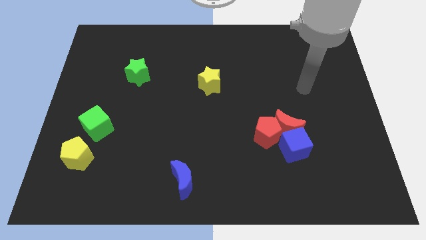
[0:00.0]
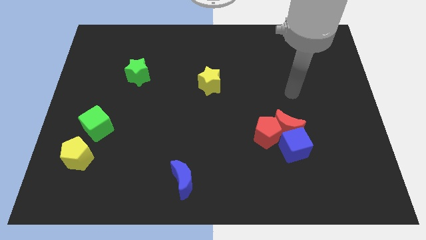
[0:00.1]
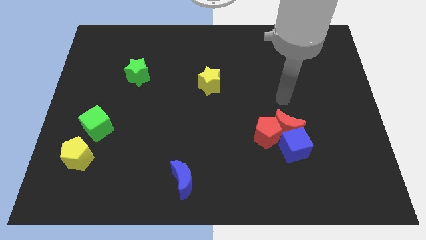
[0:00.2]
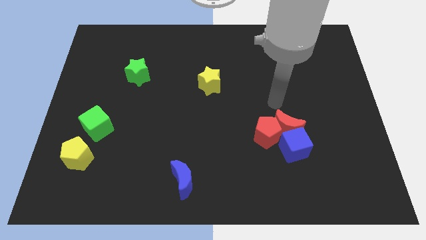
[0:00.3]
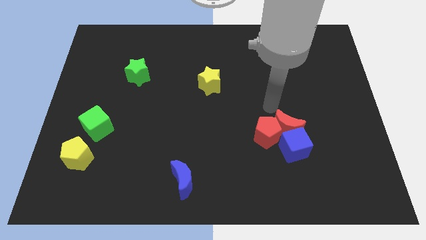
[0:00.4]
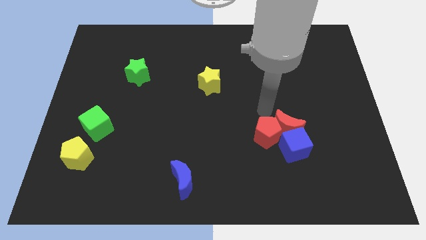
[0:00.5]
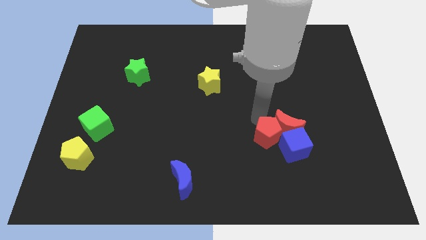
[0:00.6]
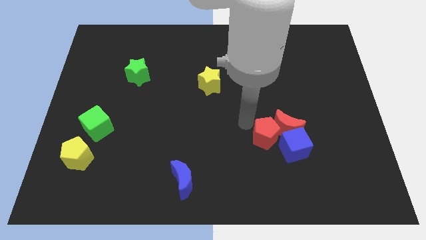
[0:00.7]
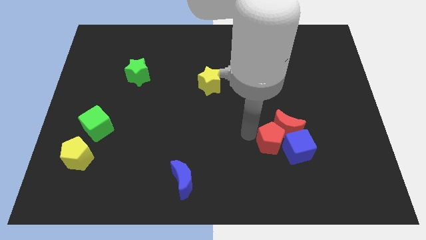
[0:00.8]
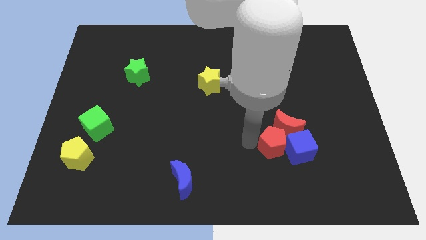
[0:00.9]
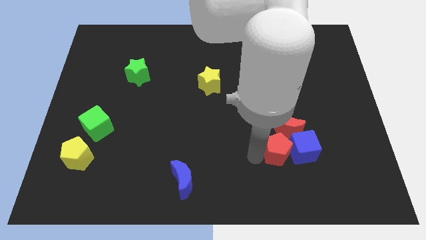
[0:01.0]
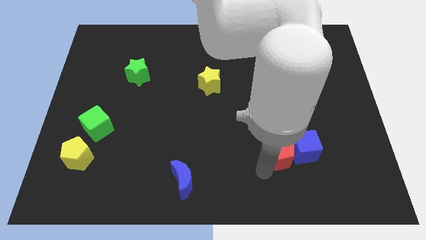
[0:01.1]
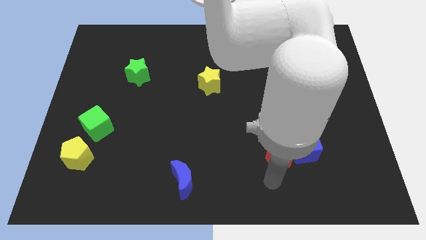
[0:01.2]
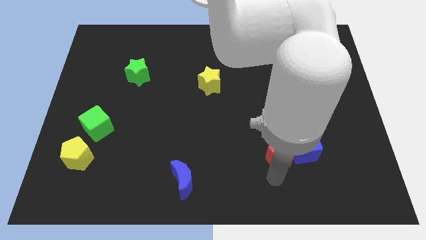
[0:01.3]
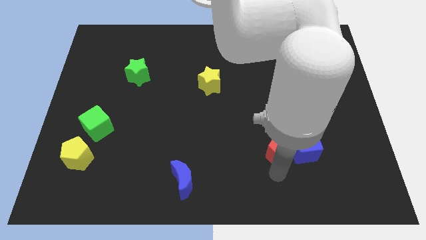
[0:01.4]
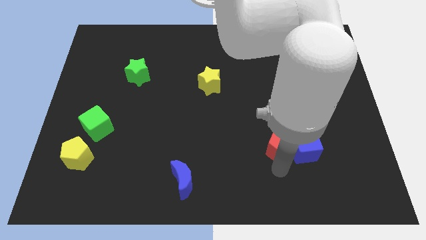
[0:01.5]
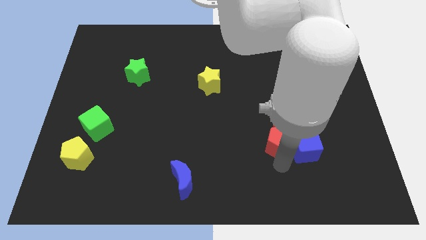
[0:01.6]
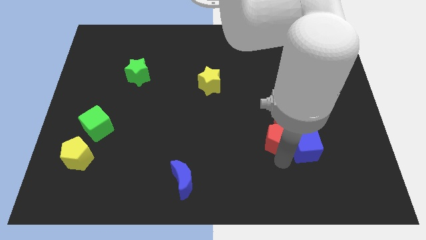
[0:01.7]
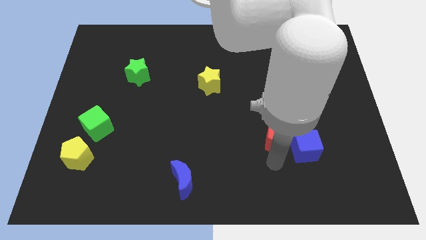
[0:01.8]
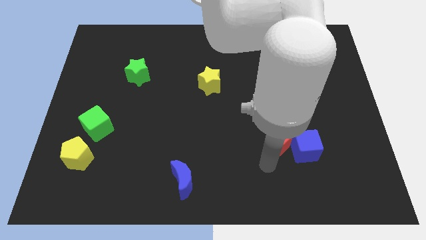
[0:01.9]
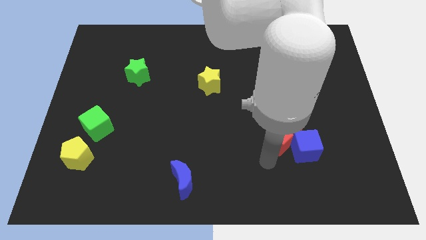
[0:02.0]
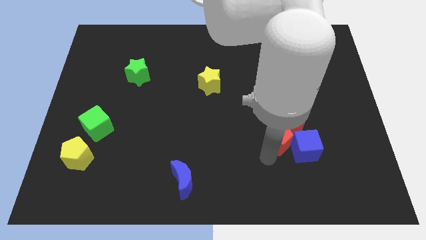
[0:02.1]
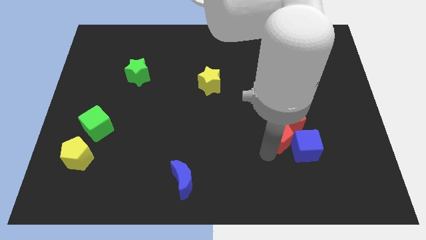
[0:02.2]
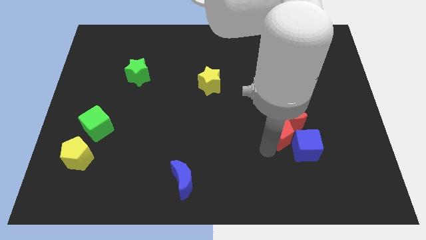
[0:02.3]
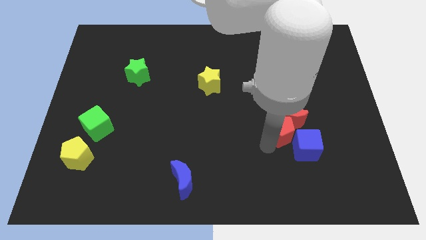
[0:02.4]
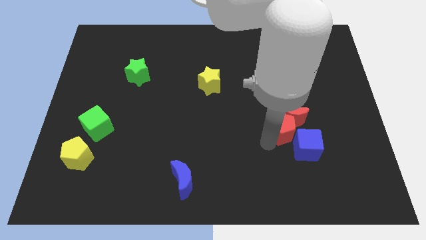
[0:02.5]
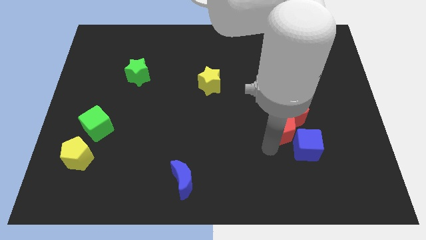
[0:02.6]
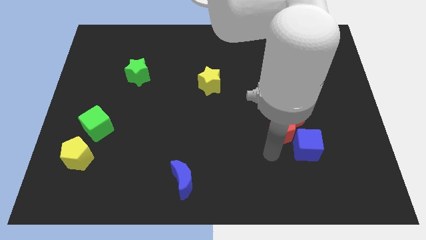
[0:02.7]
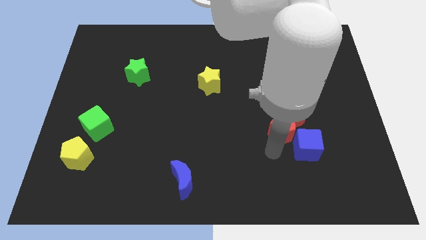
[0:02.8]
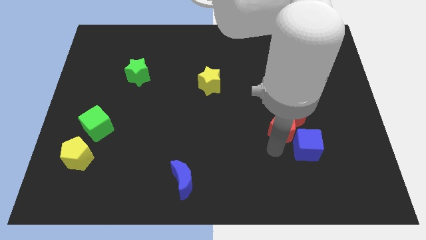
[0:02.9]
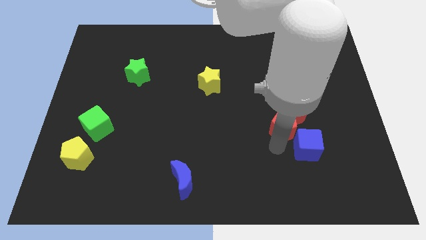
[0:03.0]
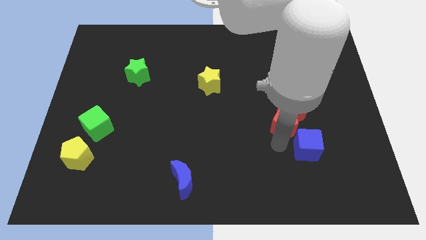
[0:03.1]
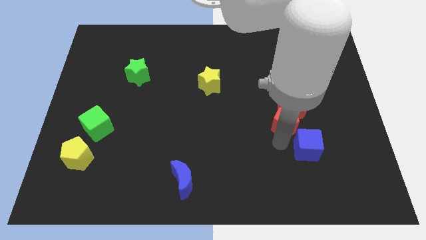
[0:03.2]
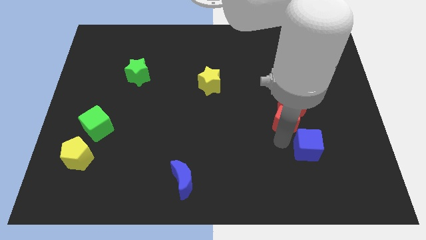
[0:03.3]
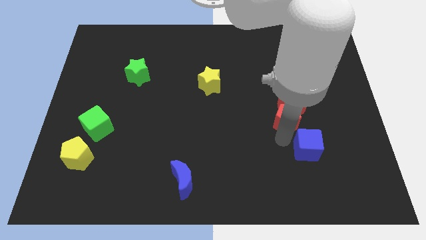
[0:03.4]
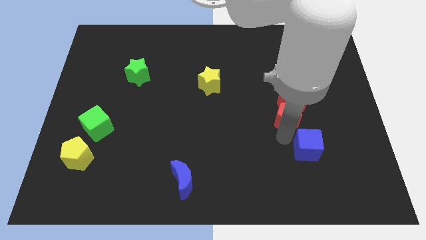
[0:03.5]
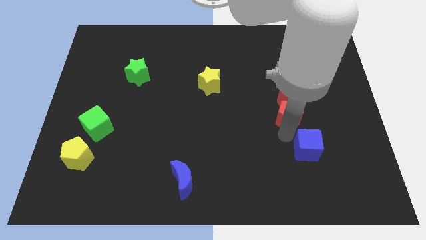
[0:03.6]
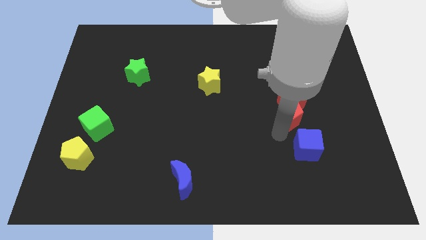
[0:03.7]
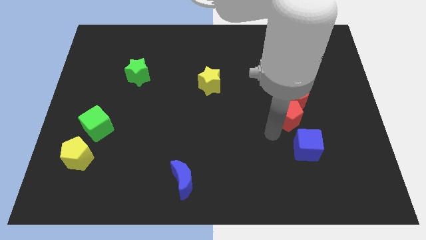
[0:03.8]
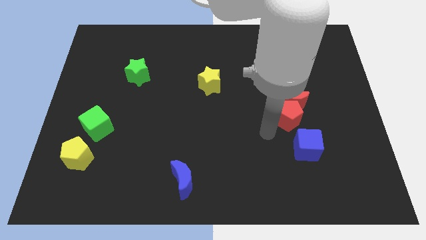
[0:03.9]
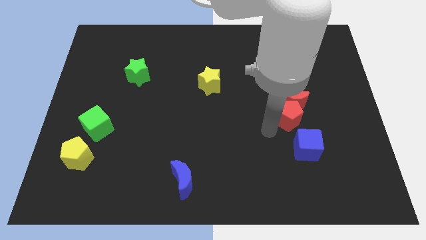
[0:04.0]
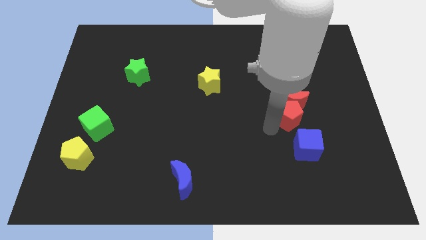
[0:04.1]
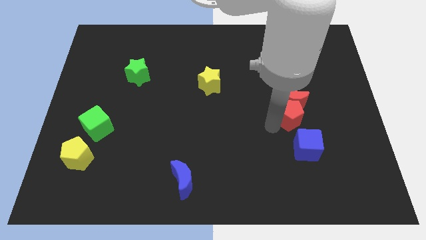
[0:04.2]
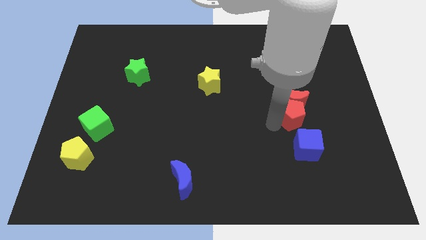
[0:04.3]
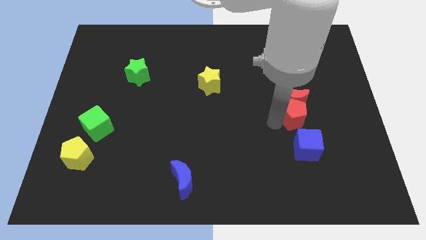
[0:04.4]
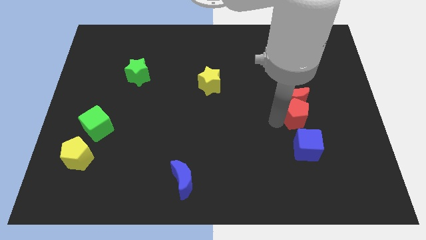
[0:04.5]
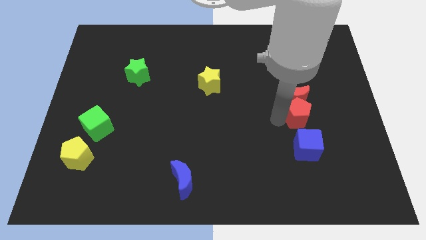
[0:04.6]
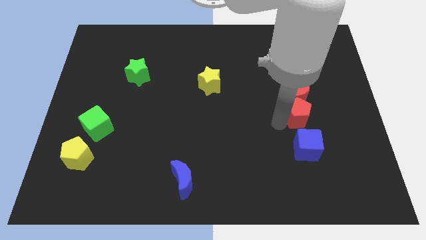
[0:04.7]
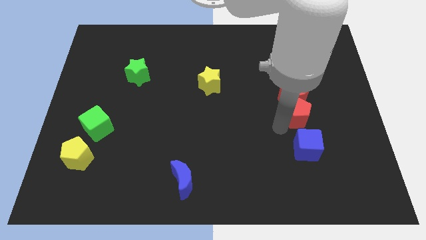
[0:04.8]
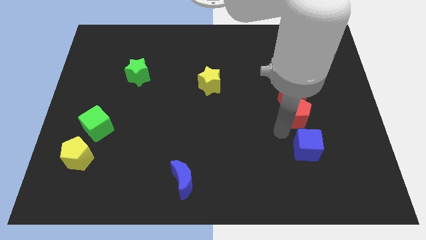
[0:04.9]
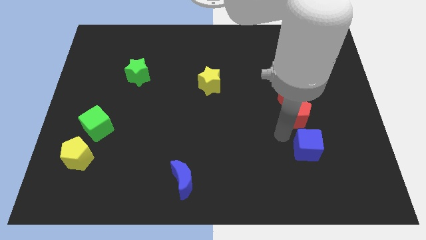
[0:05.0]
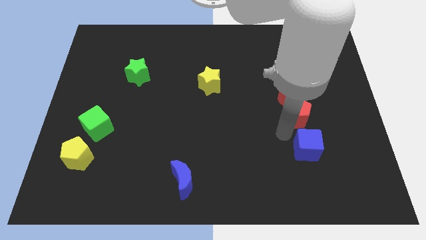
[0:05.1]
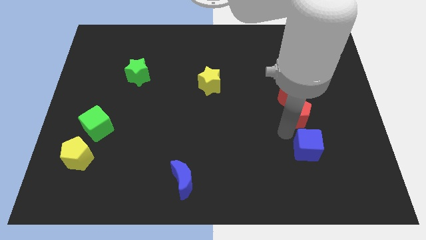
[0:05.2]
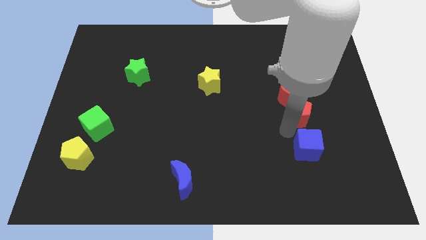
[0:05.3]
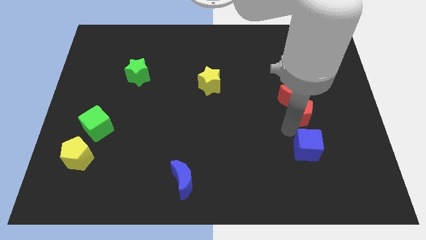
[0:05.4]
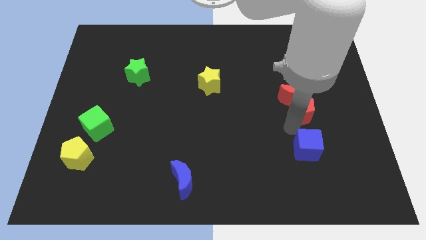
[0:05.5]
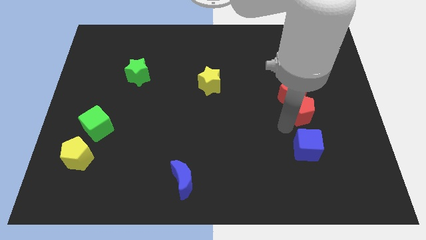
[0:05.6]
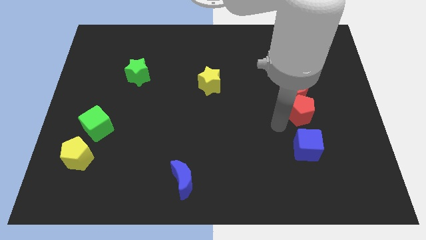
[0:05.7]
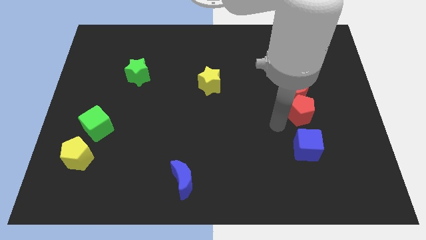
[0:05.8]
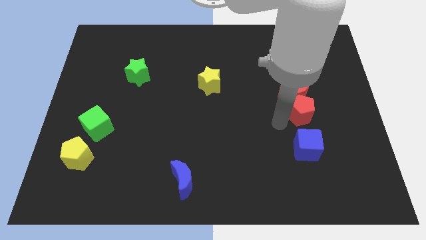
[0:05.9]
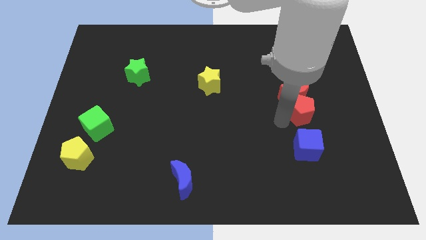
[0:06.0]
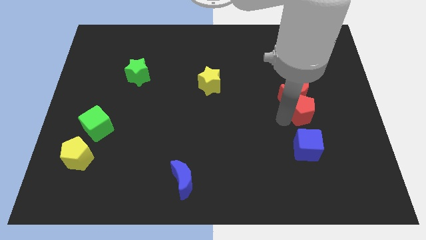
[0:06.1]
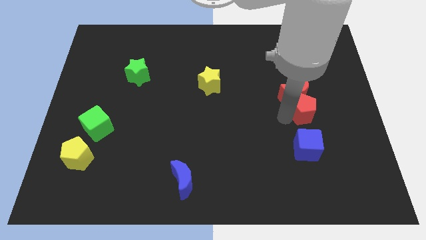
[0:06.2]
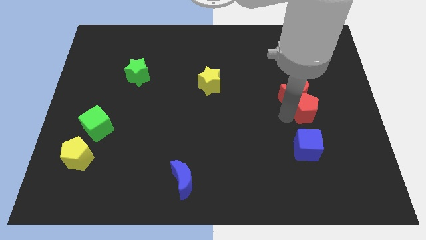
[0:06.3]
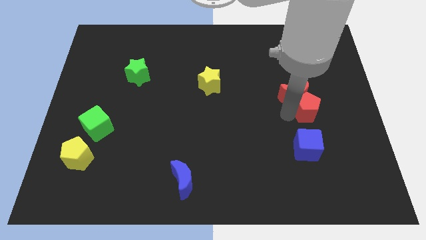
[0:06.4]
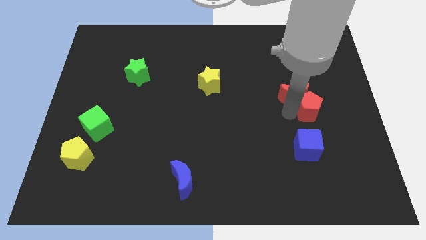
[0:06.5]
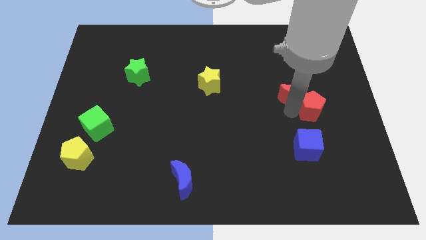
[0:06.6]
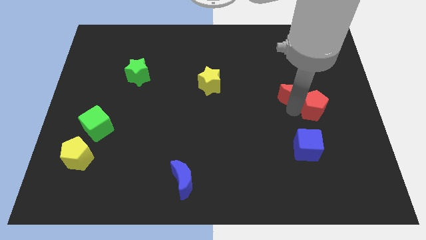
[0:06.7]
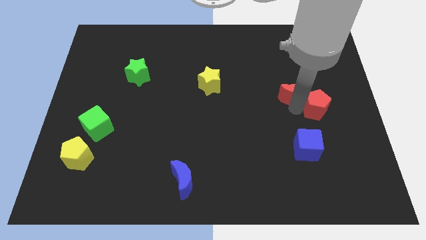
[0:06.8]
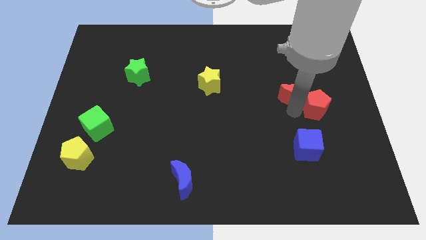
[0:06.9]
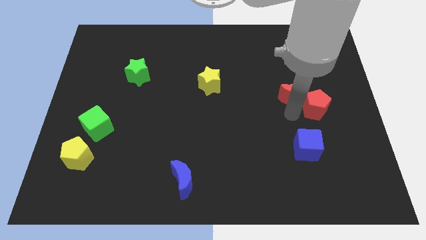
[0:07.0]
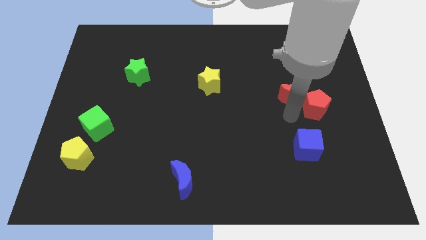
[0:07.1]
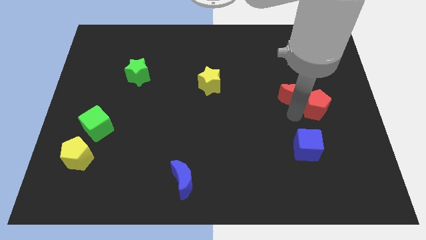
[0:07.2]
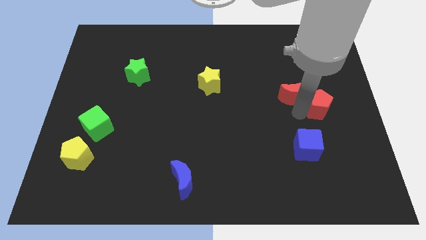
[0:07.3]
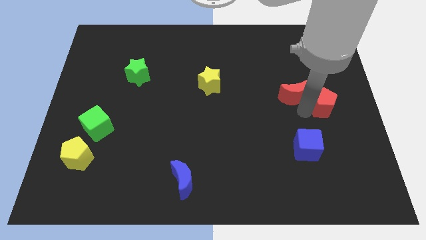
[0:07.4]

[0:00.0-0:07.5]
slide the red pentagon to the right side
